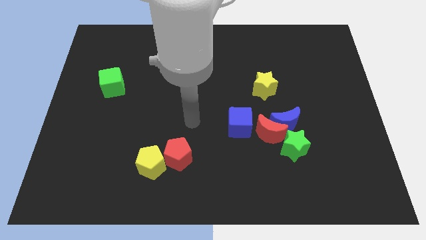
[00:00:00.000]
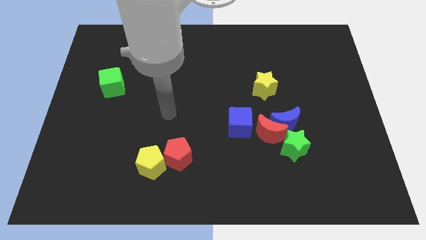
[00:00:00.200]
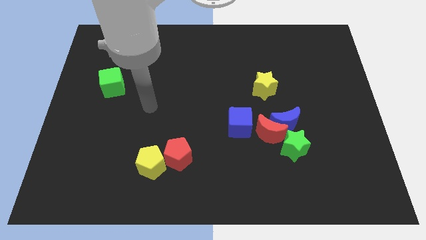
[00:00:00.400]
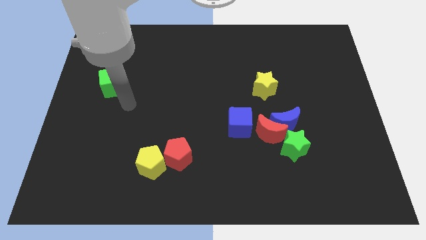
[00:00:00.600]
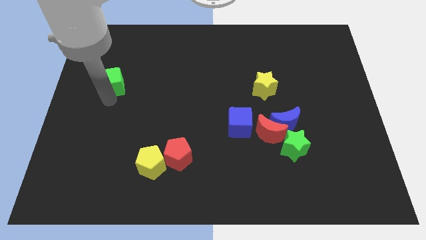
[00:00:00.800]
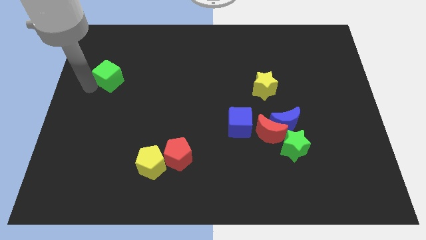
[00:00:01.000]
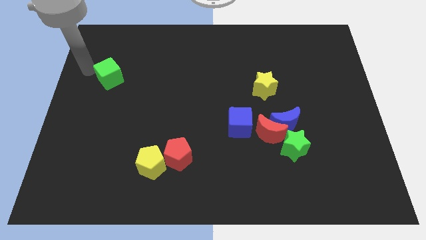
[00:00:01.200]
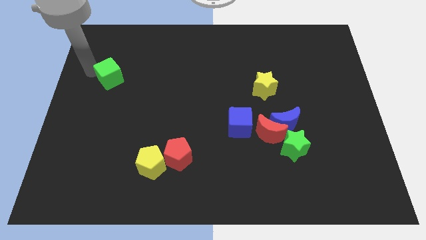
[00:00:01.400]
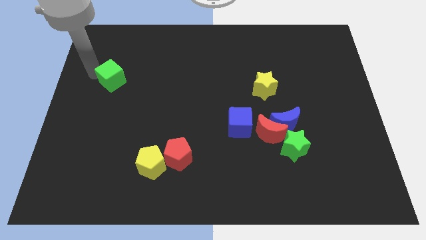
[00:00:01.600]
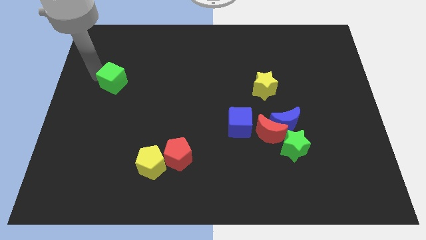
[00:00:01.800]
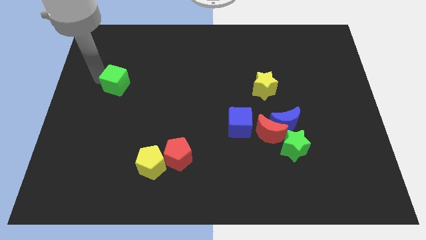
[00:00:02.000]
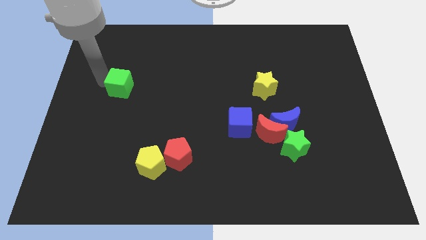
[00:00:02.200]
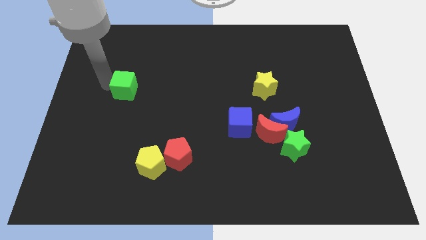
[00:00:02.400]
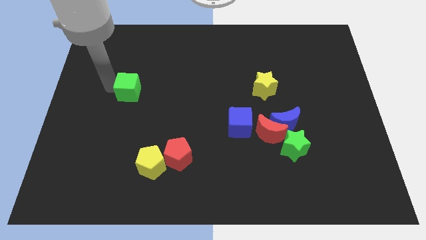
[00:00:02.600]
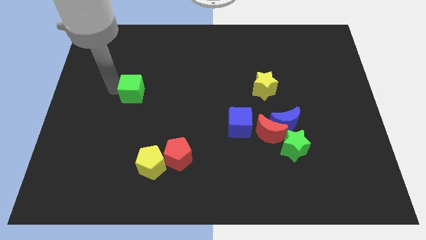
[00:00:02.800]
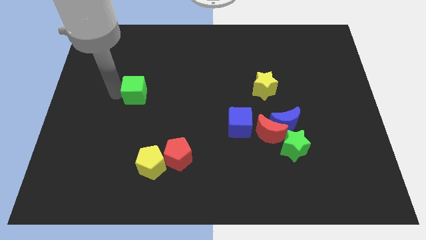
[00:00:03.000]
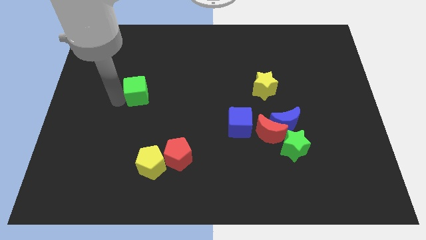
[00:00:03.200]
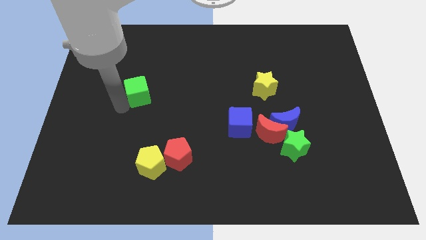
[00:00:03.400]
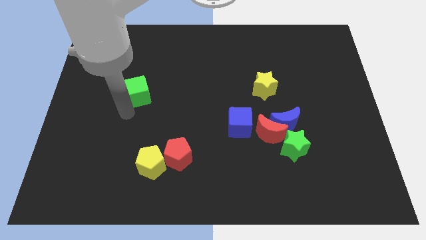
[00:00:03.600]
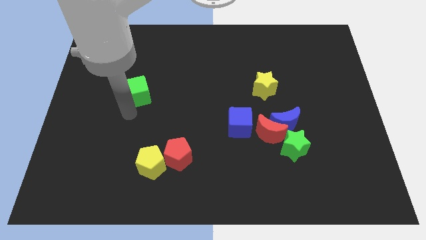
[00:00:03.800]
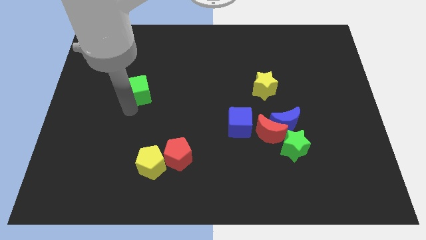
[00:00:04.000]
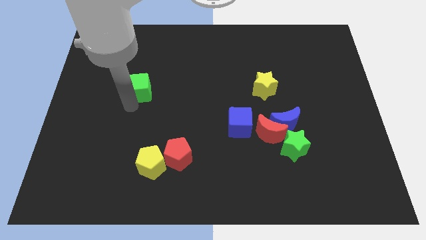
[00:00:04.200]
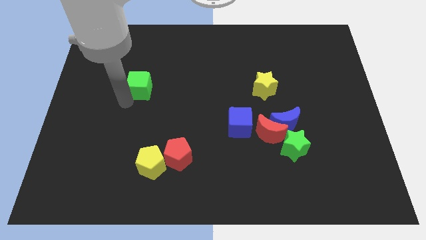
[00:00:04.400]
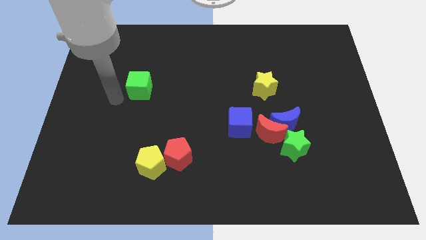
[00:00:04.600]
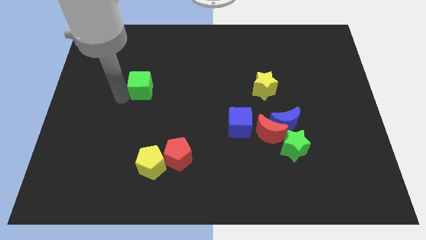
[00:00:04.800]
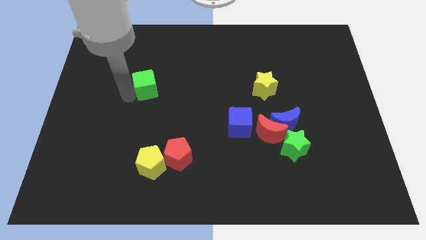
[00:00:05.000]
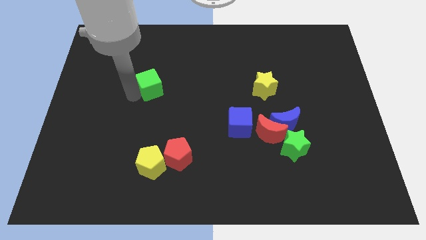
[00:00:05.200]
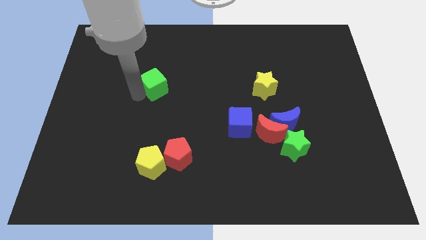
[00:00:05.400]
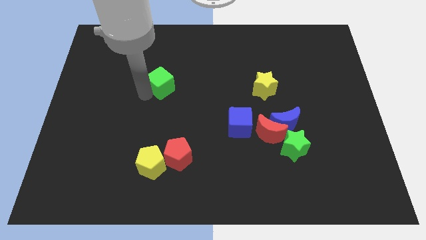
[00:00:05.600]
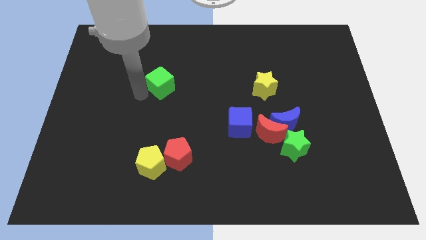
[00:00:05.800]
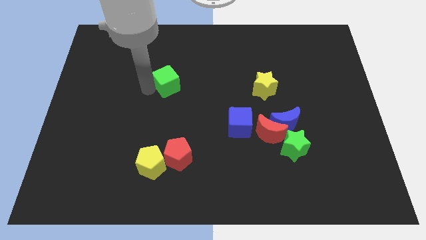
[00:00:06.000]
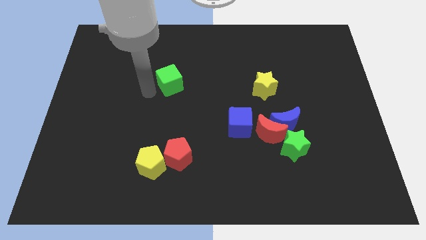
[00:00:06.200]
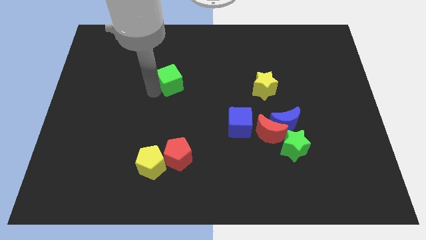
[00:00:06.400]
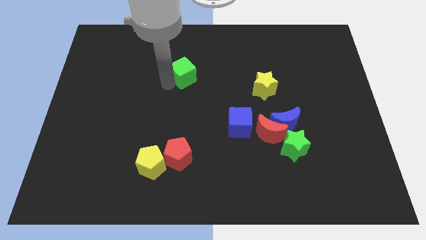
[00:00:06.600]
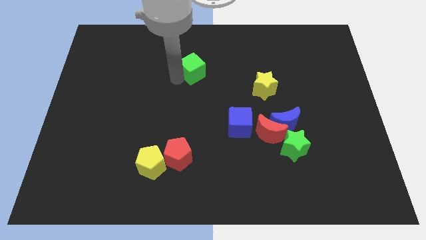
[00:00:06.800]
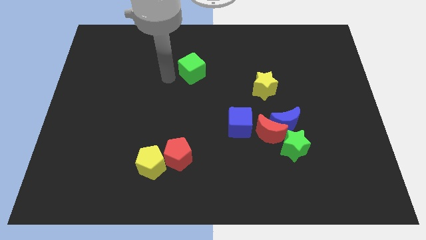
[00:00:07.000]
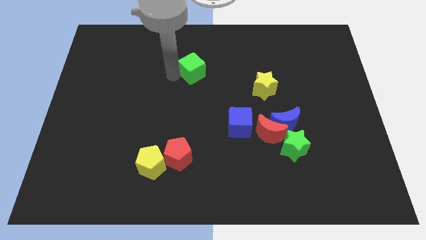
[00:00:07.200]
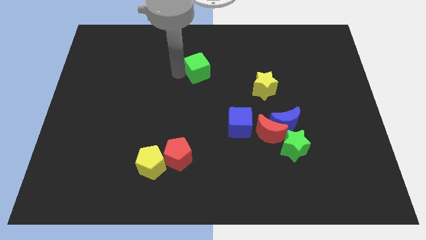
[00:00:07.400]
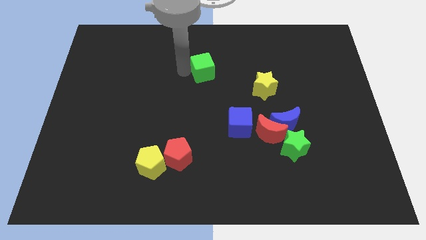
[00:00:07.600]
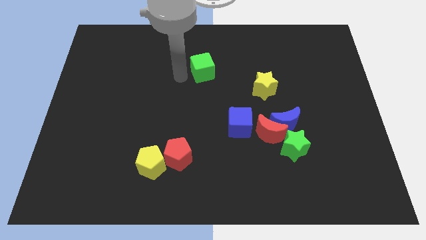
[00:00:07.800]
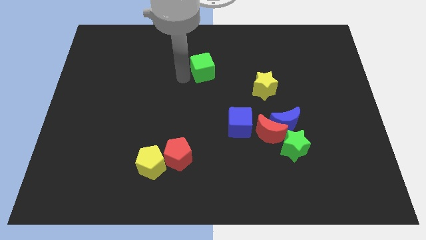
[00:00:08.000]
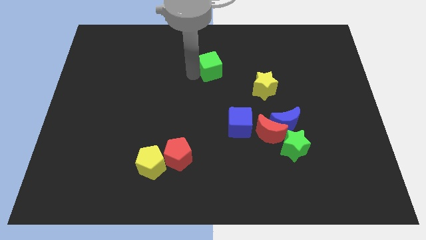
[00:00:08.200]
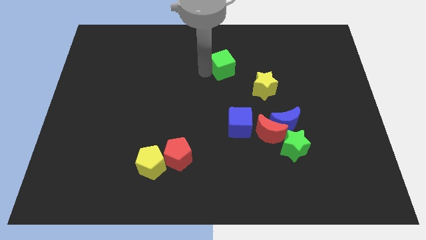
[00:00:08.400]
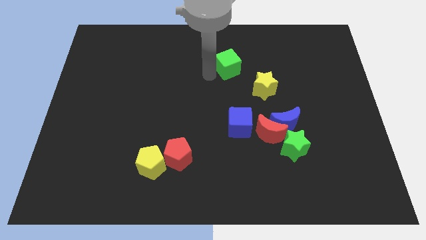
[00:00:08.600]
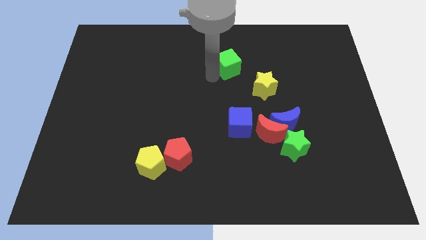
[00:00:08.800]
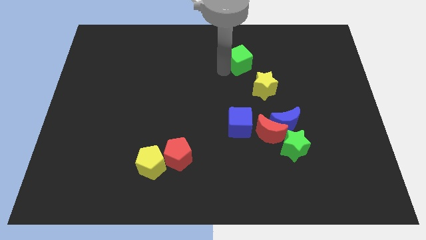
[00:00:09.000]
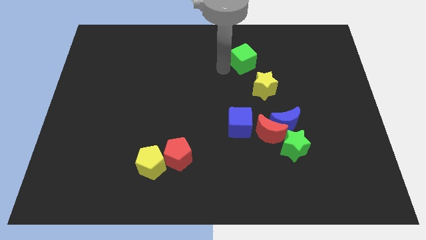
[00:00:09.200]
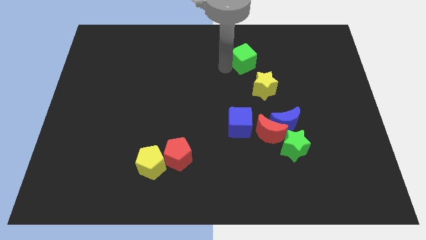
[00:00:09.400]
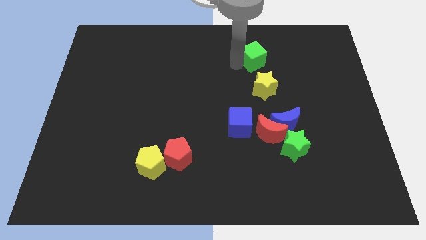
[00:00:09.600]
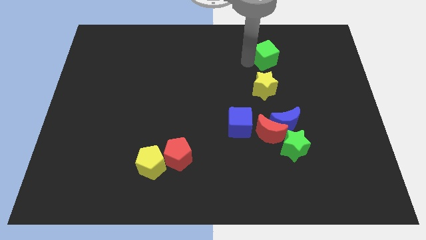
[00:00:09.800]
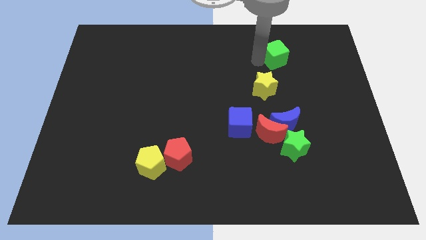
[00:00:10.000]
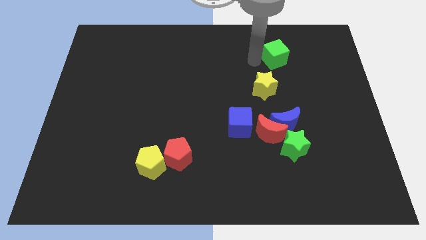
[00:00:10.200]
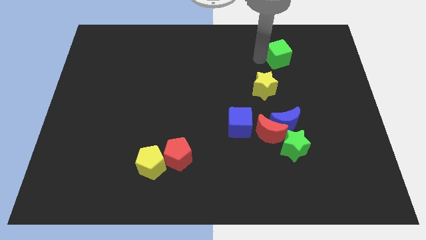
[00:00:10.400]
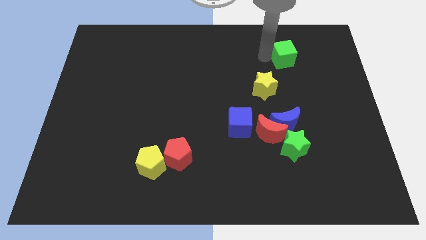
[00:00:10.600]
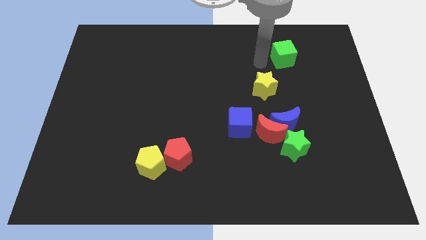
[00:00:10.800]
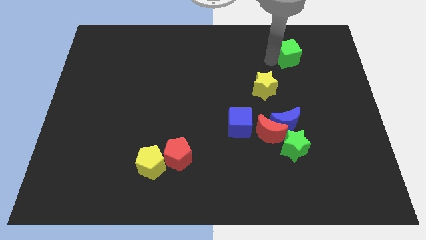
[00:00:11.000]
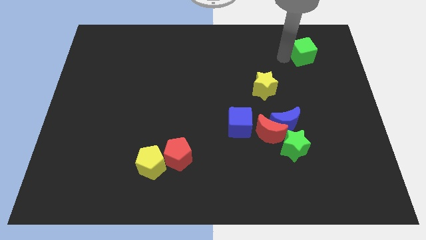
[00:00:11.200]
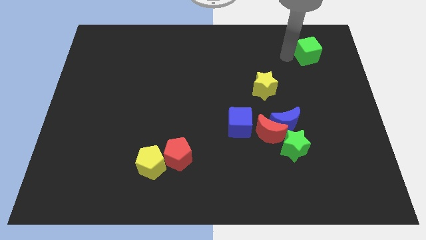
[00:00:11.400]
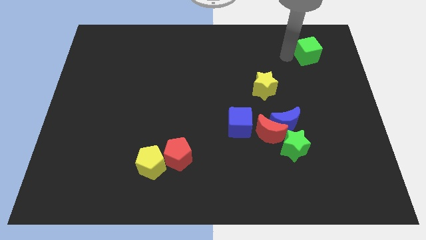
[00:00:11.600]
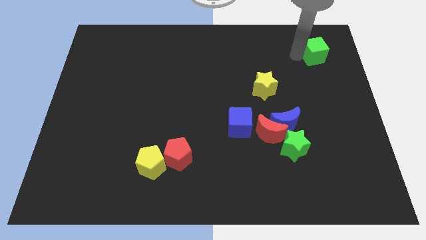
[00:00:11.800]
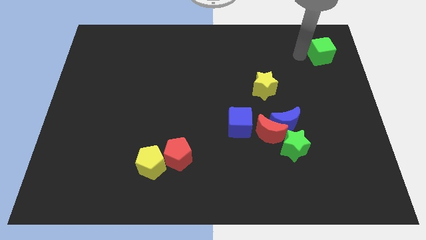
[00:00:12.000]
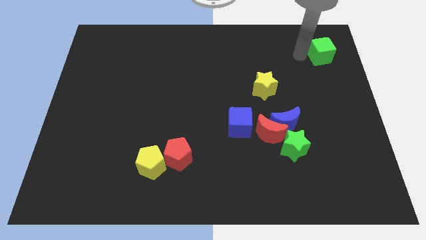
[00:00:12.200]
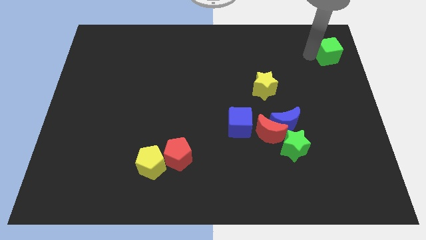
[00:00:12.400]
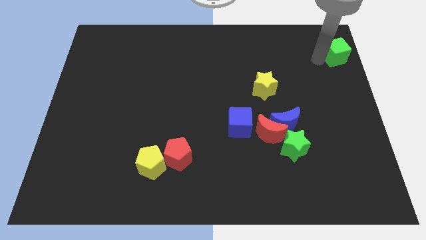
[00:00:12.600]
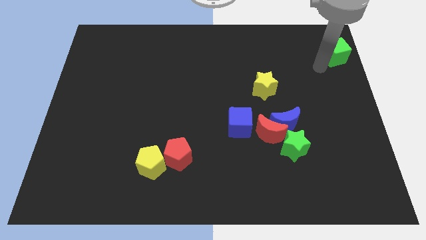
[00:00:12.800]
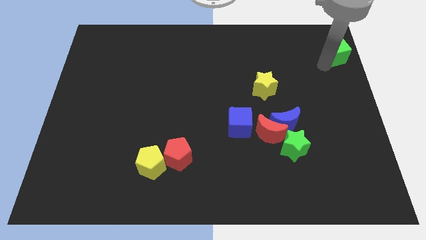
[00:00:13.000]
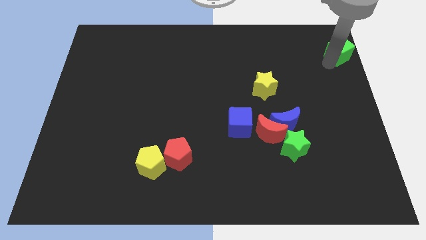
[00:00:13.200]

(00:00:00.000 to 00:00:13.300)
move the green cube to the top right corner

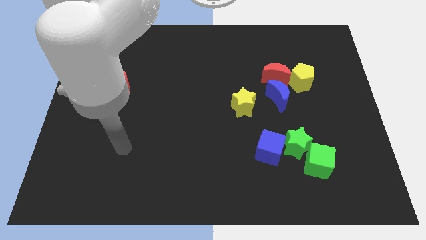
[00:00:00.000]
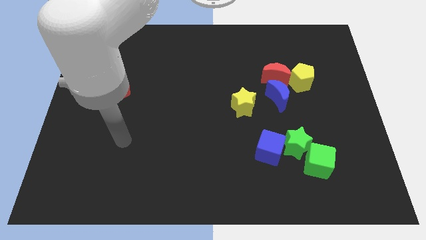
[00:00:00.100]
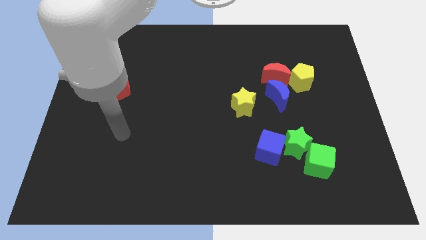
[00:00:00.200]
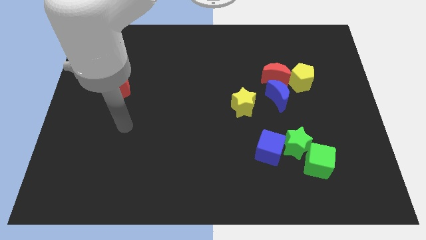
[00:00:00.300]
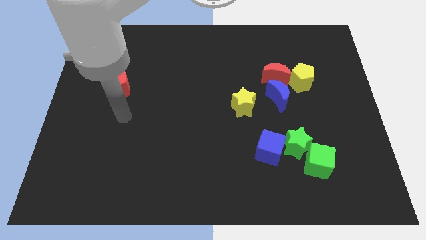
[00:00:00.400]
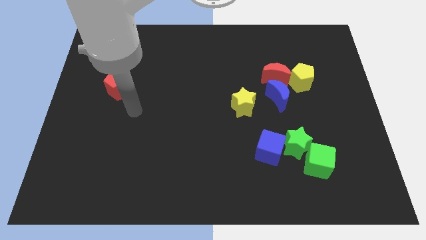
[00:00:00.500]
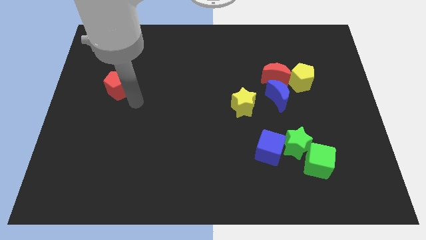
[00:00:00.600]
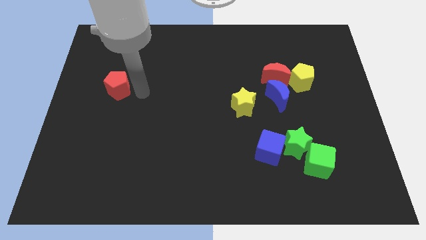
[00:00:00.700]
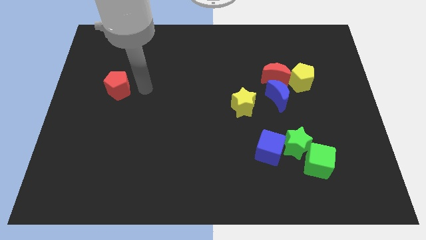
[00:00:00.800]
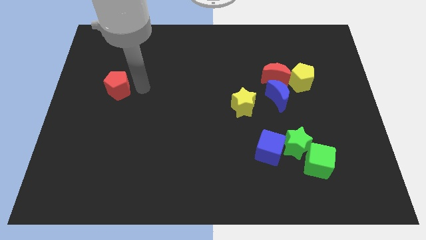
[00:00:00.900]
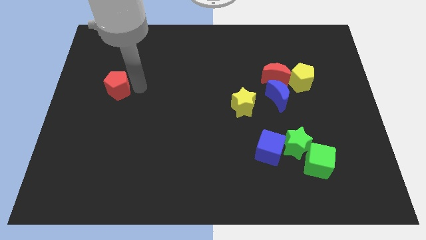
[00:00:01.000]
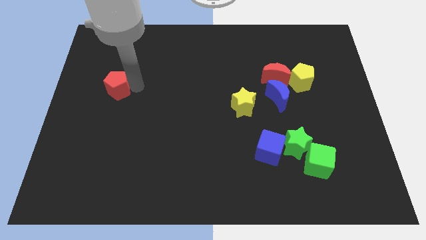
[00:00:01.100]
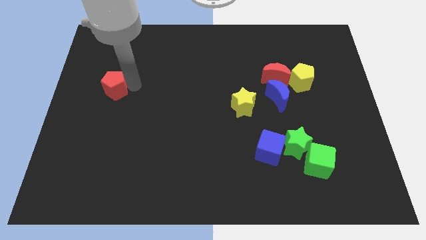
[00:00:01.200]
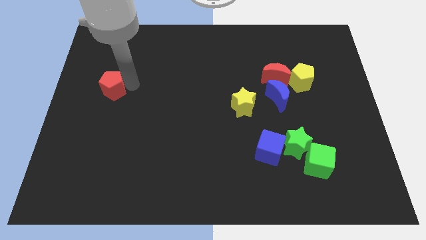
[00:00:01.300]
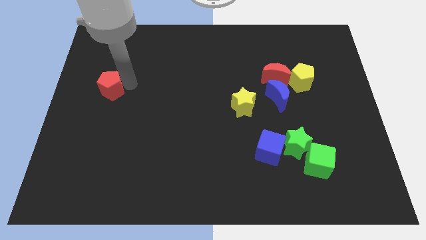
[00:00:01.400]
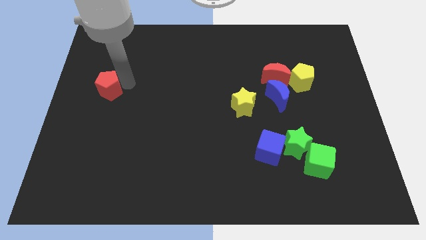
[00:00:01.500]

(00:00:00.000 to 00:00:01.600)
put the red pentagon to the center left
